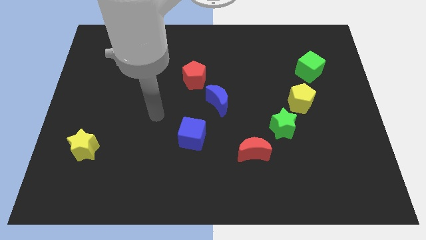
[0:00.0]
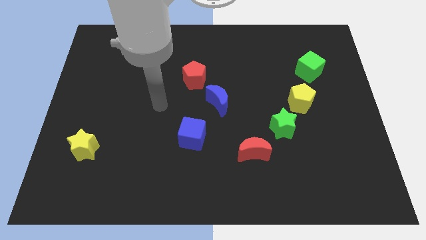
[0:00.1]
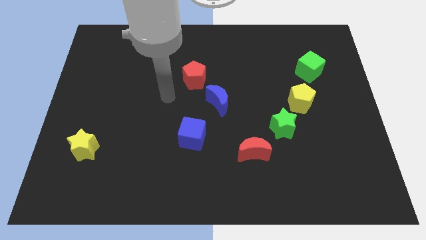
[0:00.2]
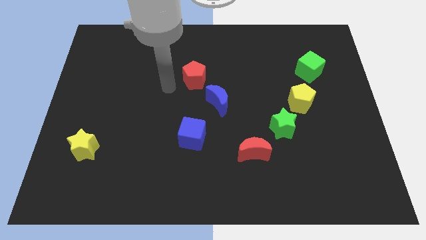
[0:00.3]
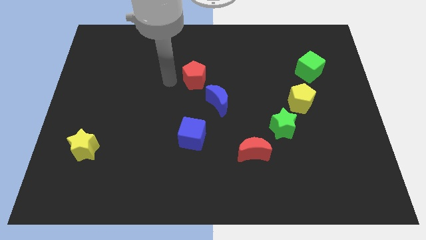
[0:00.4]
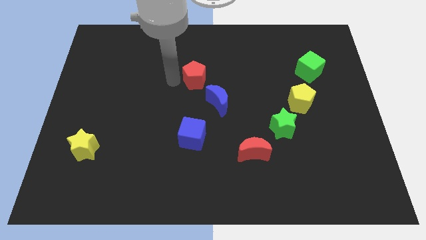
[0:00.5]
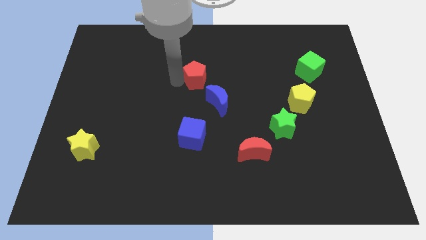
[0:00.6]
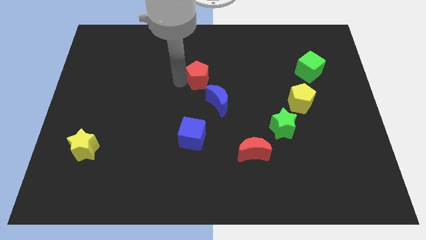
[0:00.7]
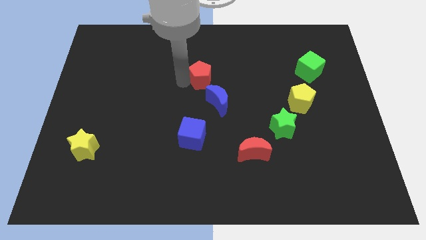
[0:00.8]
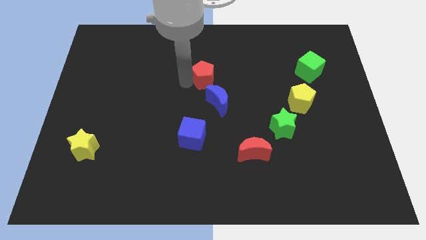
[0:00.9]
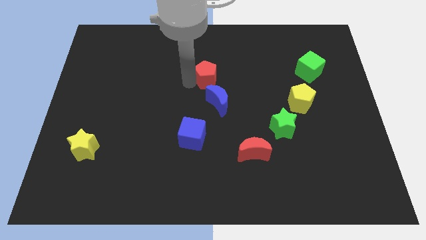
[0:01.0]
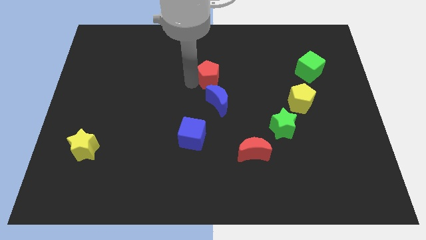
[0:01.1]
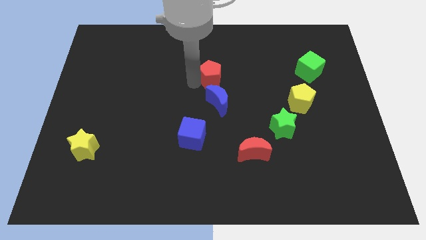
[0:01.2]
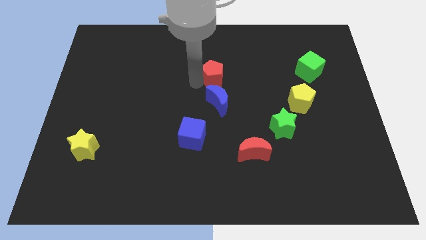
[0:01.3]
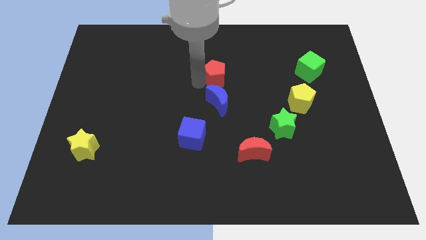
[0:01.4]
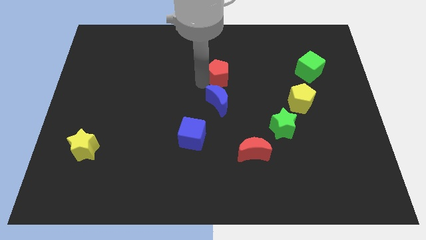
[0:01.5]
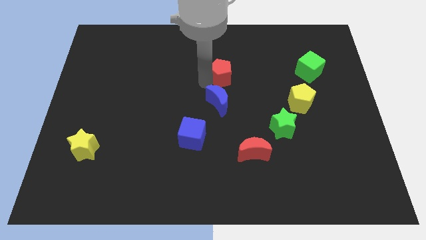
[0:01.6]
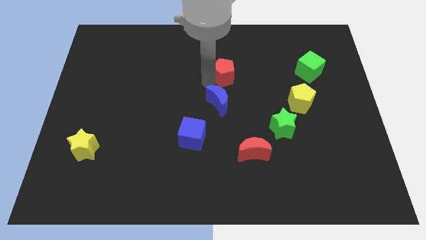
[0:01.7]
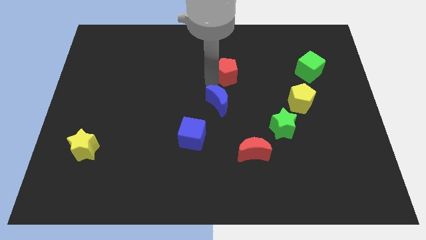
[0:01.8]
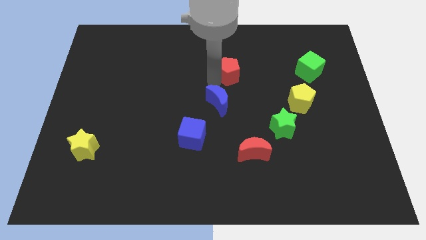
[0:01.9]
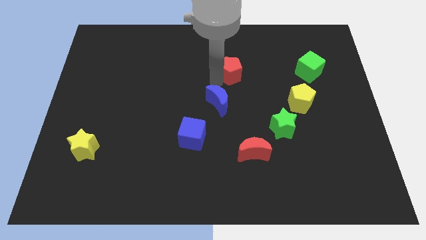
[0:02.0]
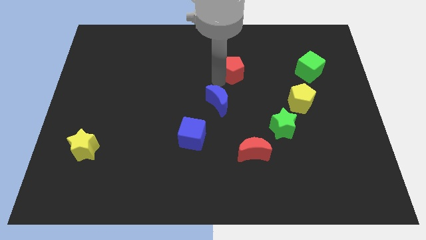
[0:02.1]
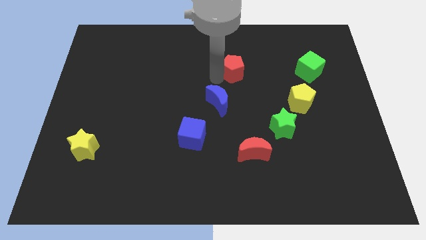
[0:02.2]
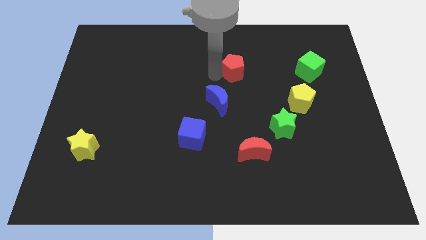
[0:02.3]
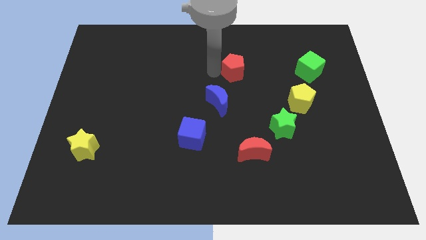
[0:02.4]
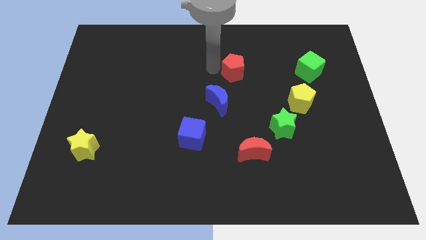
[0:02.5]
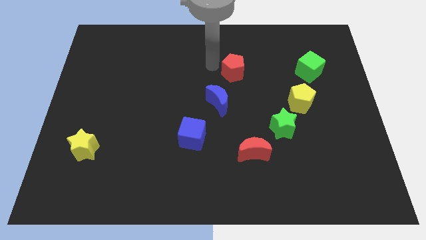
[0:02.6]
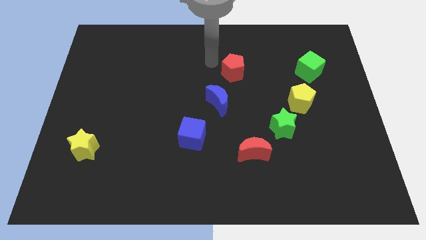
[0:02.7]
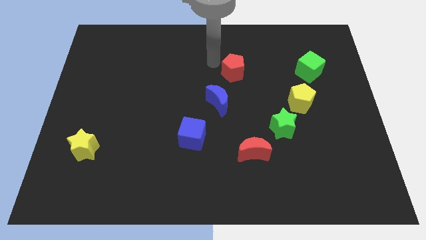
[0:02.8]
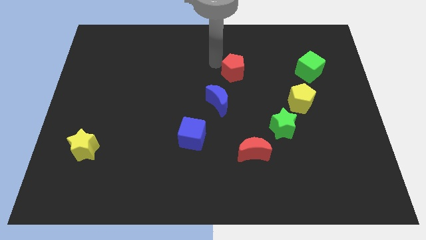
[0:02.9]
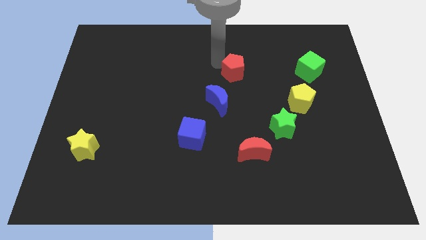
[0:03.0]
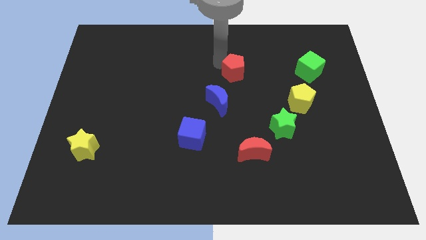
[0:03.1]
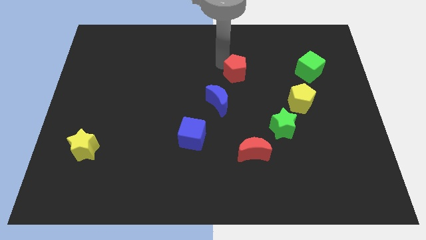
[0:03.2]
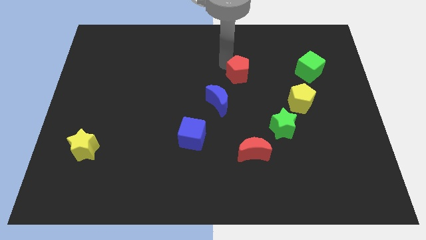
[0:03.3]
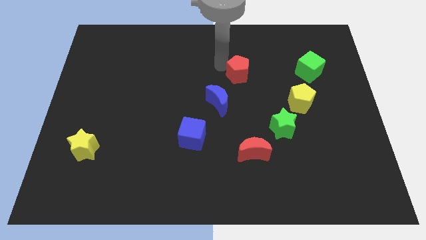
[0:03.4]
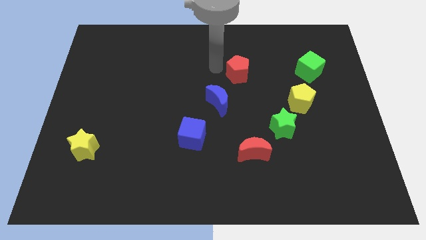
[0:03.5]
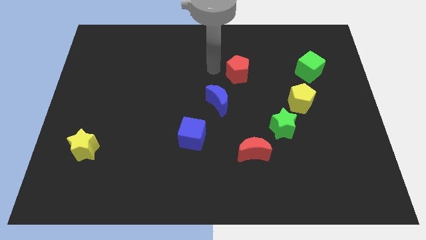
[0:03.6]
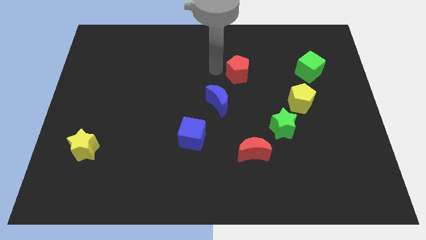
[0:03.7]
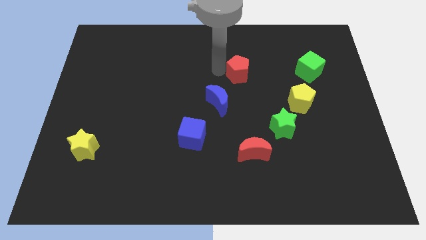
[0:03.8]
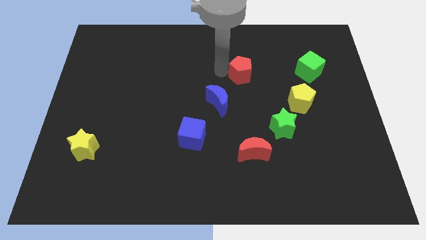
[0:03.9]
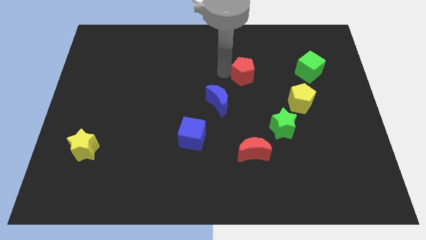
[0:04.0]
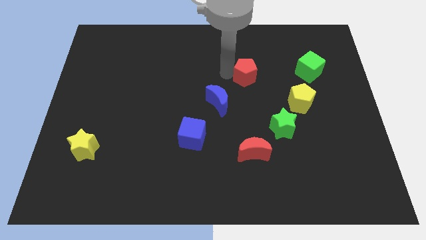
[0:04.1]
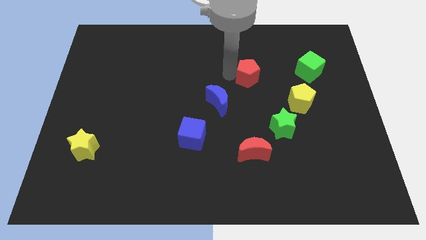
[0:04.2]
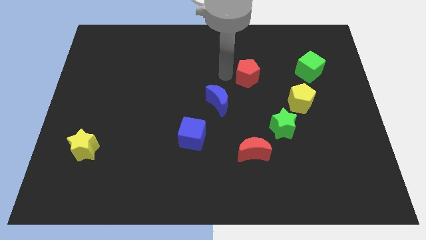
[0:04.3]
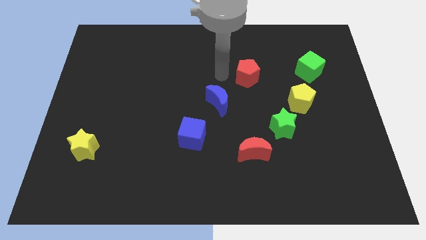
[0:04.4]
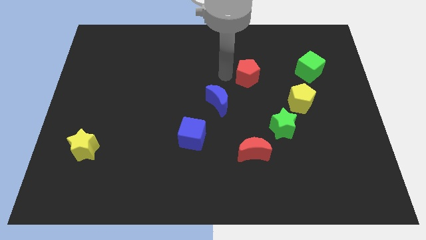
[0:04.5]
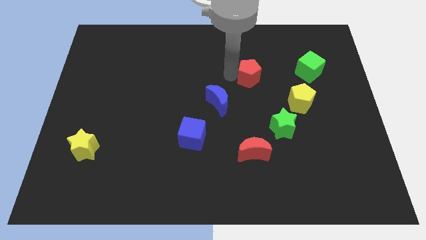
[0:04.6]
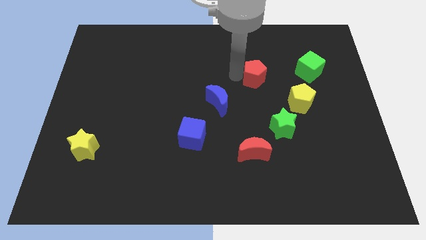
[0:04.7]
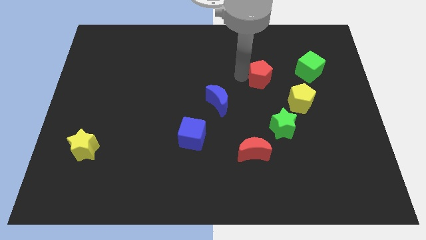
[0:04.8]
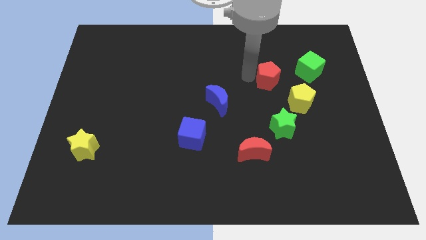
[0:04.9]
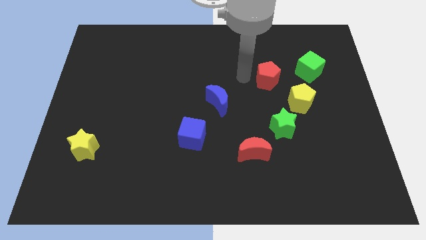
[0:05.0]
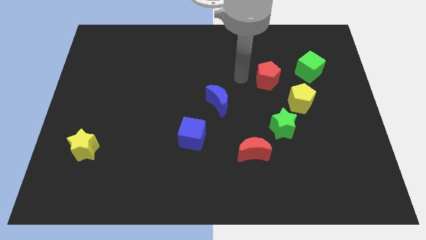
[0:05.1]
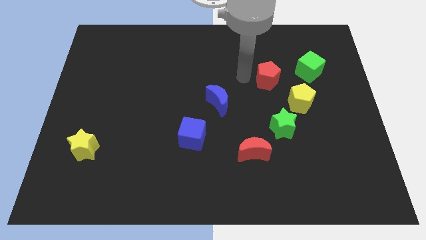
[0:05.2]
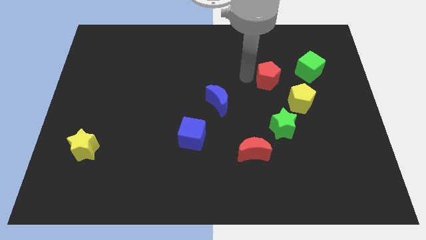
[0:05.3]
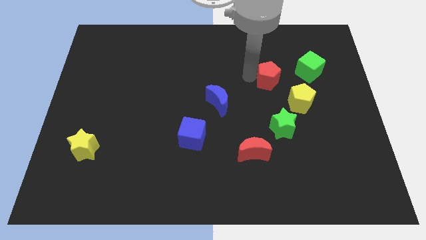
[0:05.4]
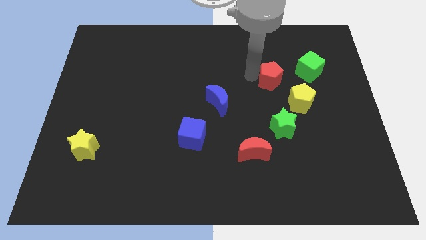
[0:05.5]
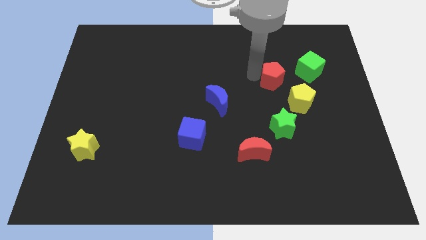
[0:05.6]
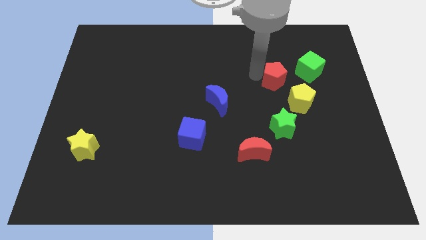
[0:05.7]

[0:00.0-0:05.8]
move the red pentagon to the right

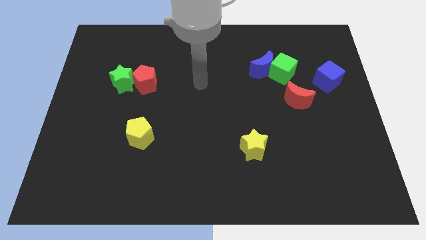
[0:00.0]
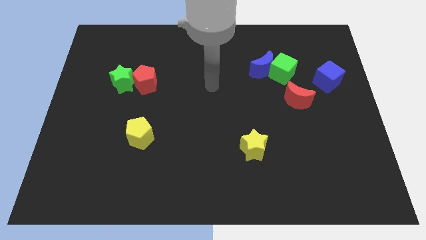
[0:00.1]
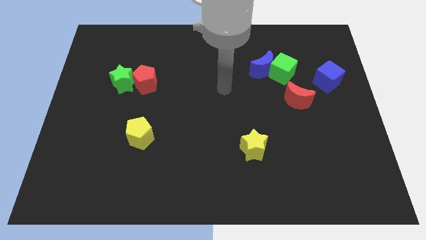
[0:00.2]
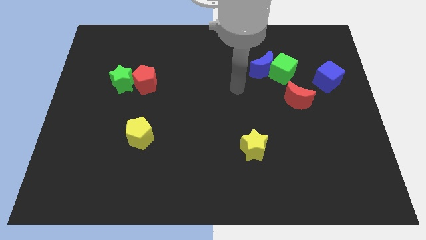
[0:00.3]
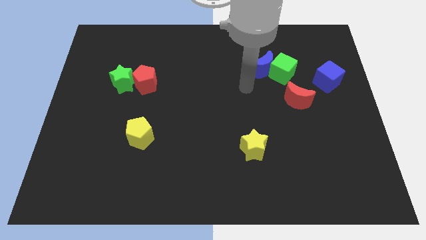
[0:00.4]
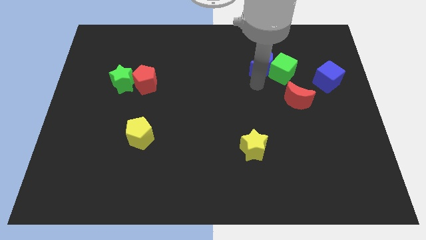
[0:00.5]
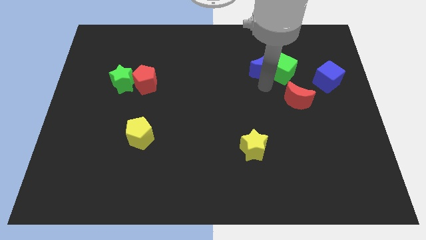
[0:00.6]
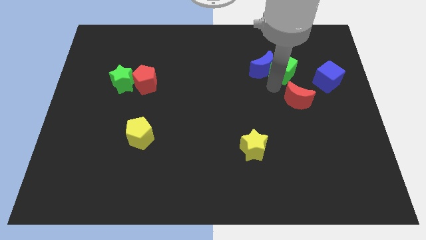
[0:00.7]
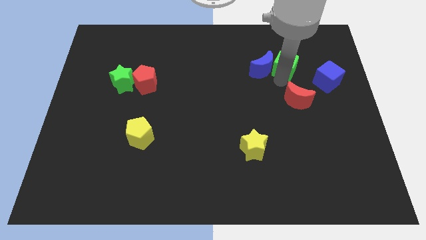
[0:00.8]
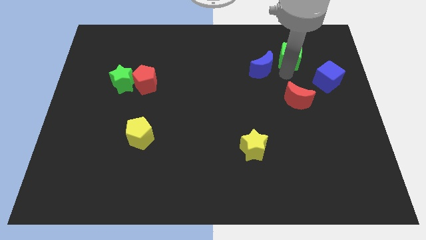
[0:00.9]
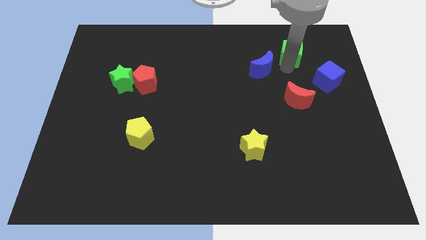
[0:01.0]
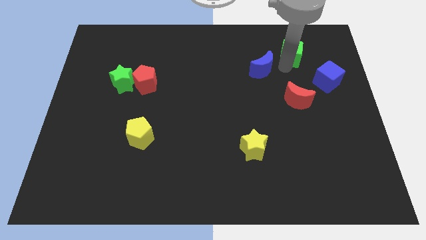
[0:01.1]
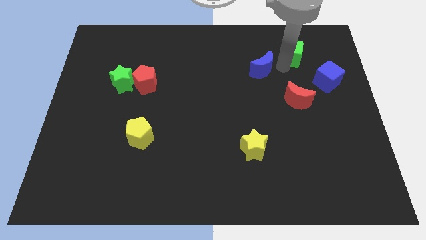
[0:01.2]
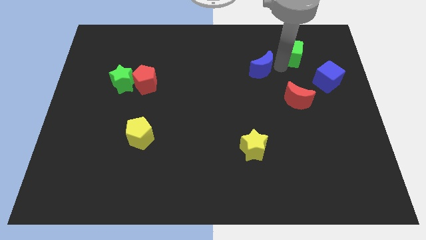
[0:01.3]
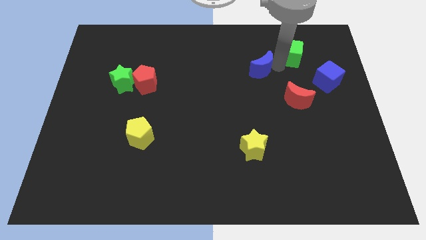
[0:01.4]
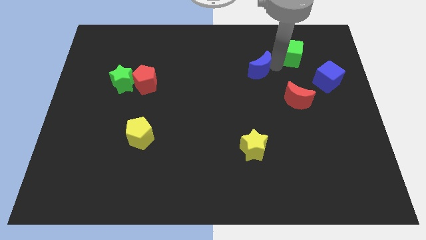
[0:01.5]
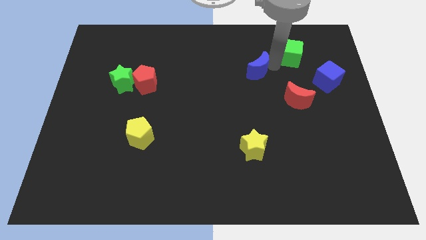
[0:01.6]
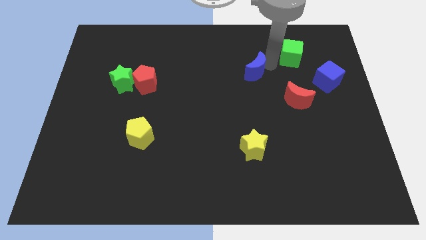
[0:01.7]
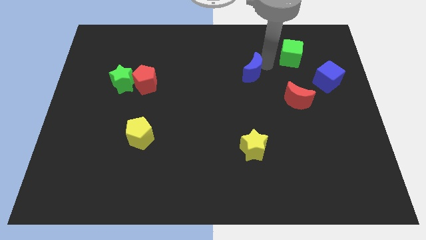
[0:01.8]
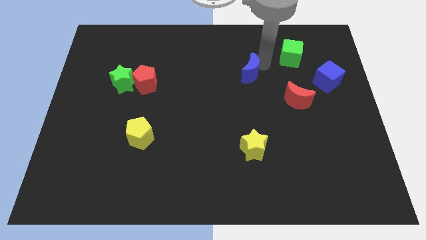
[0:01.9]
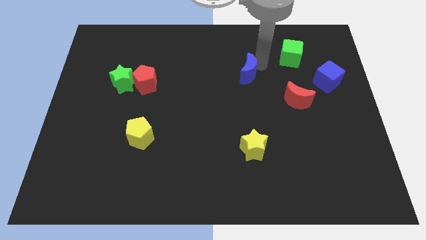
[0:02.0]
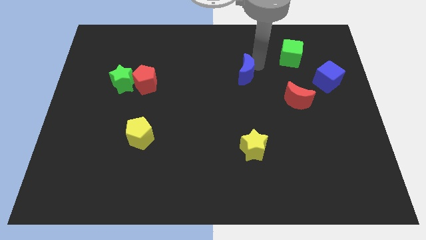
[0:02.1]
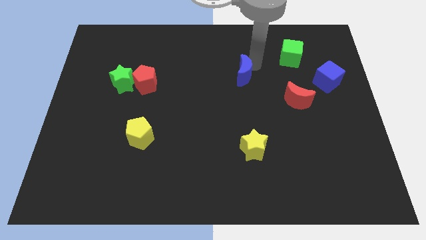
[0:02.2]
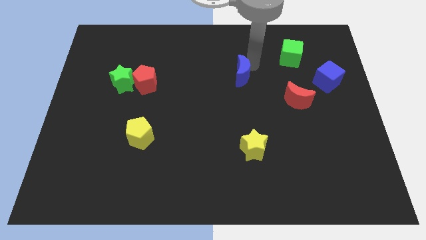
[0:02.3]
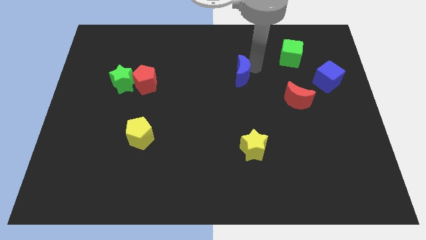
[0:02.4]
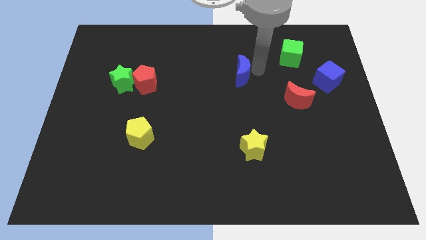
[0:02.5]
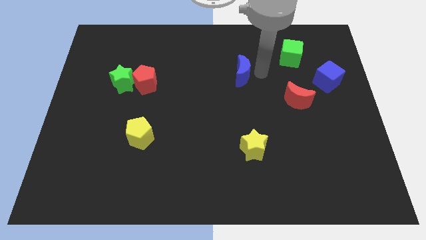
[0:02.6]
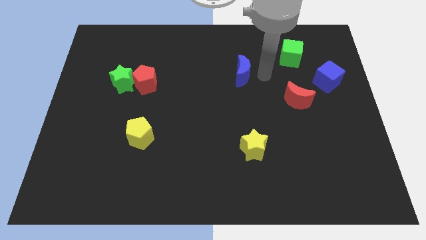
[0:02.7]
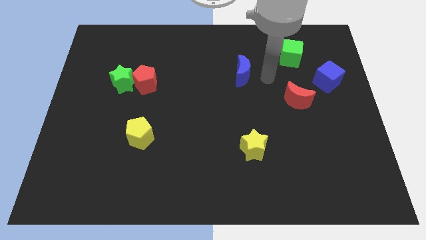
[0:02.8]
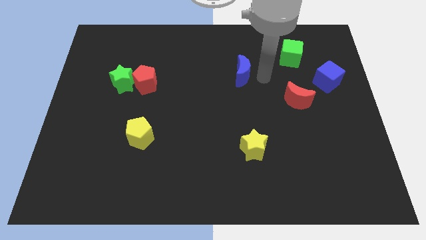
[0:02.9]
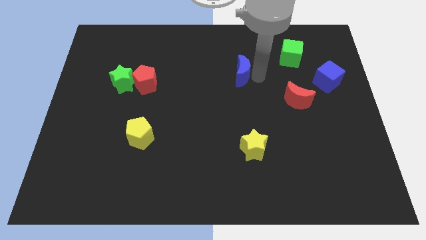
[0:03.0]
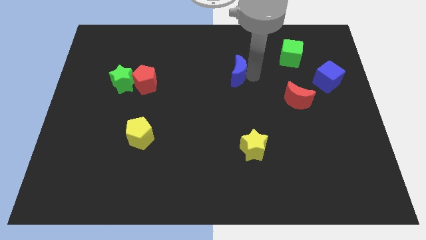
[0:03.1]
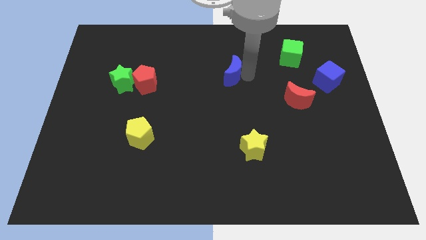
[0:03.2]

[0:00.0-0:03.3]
slightly slide the blue moon left
